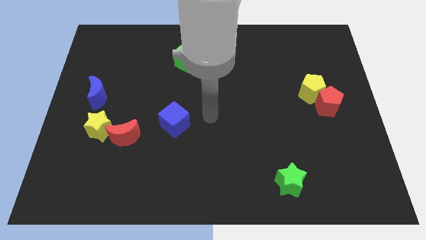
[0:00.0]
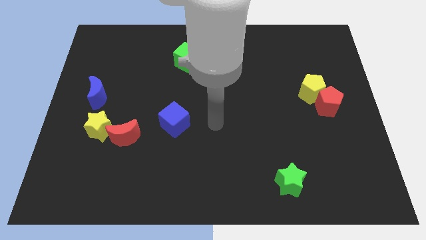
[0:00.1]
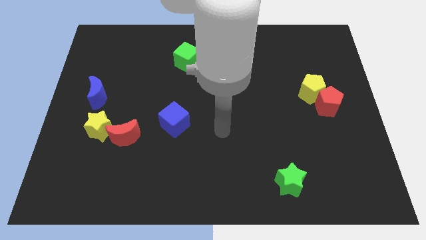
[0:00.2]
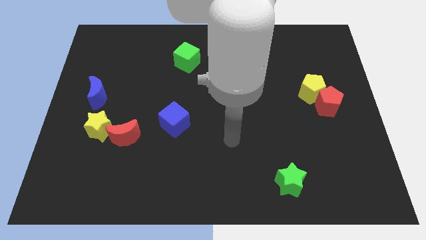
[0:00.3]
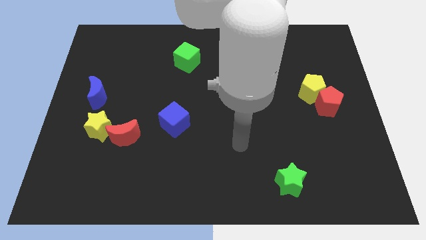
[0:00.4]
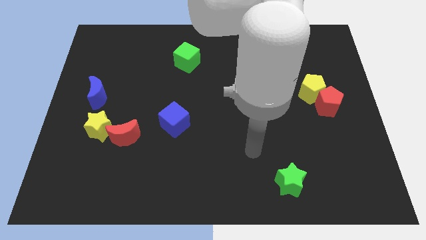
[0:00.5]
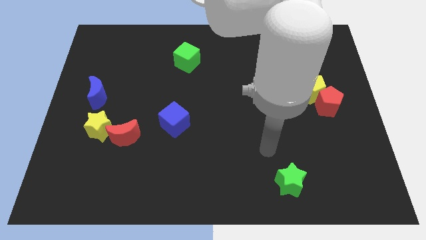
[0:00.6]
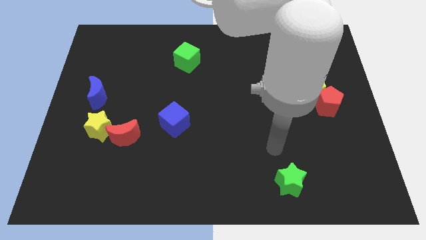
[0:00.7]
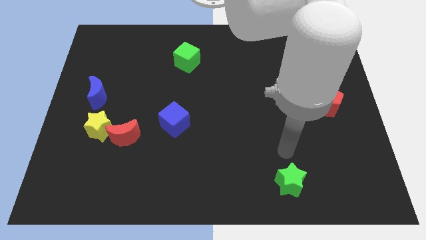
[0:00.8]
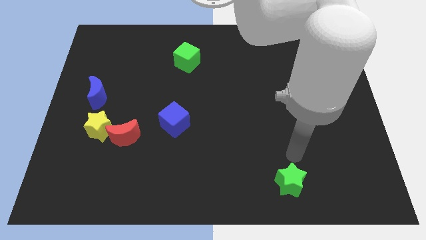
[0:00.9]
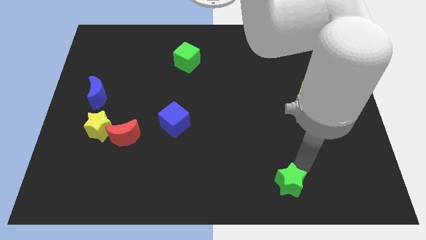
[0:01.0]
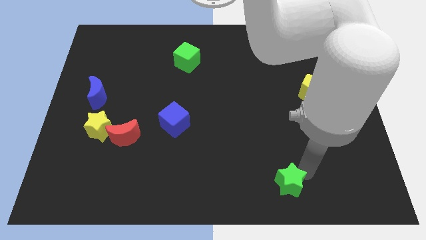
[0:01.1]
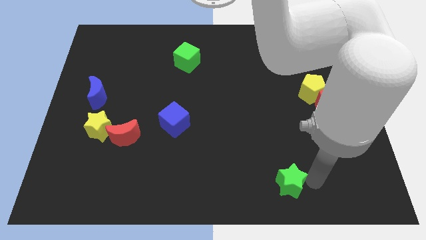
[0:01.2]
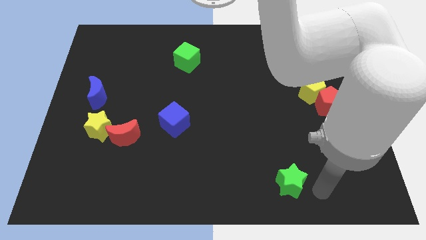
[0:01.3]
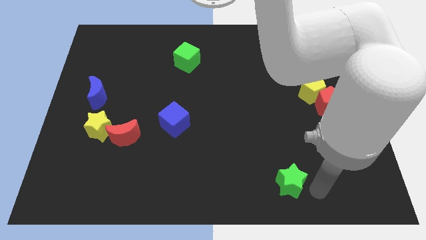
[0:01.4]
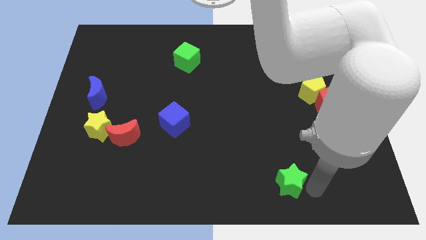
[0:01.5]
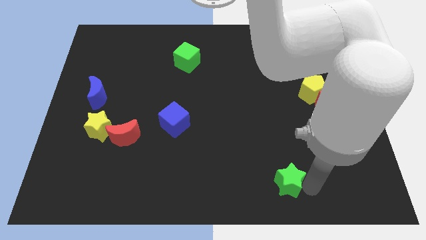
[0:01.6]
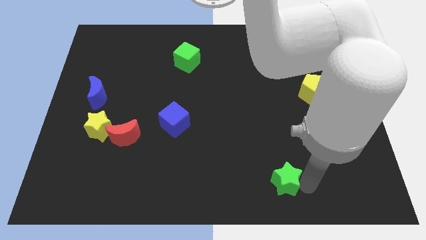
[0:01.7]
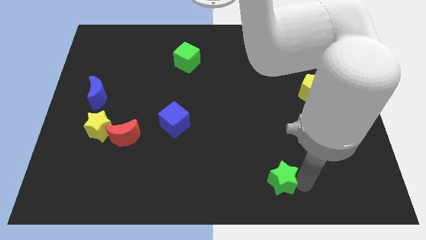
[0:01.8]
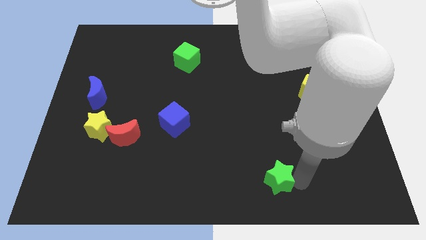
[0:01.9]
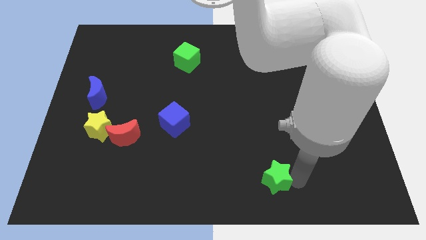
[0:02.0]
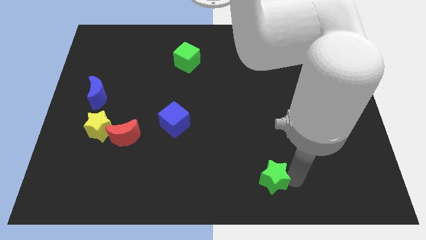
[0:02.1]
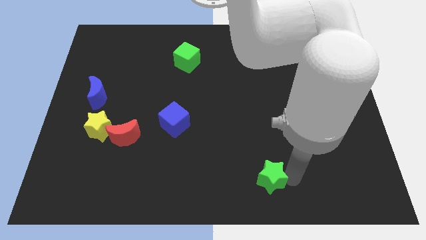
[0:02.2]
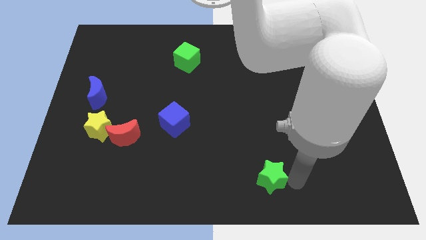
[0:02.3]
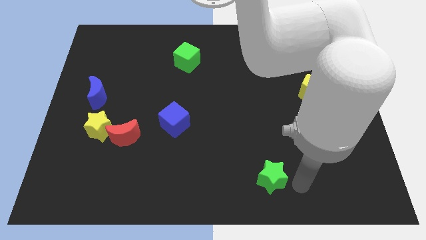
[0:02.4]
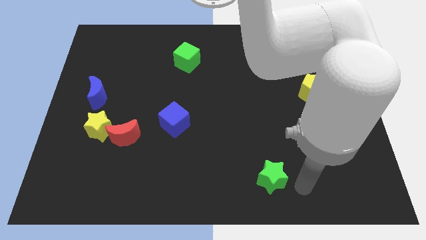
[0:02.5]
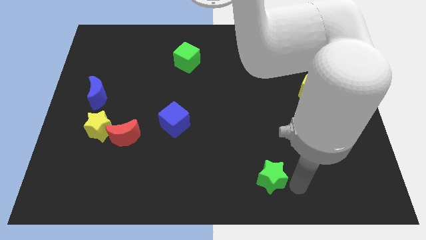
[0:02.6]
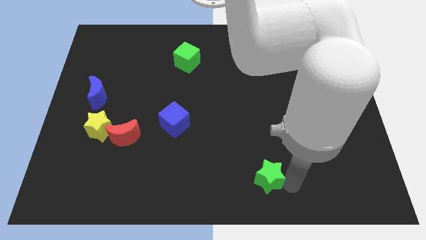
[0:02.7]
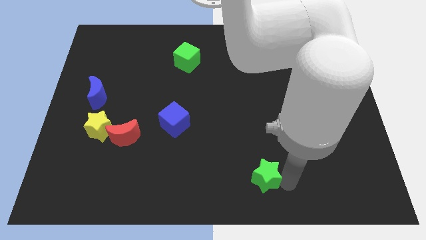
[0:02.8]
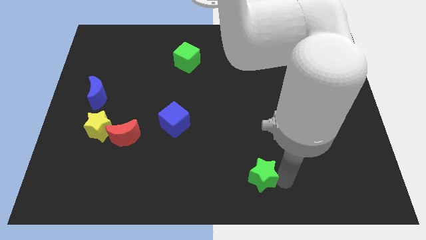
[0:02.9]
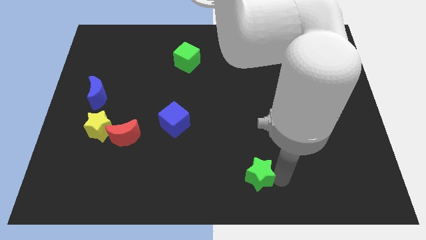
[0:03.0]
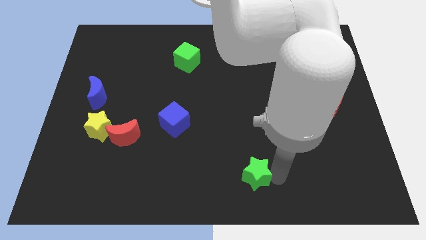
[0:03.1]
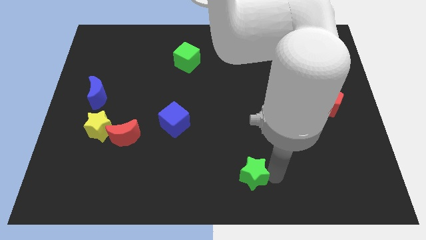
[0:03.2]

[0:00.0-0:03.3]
move the green star a little left

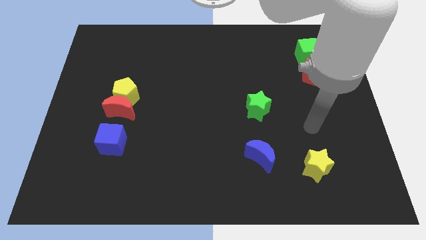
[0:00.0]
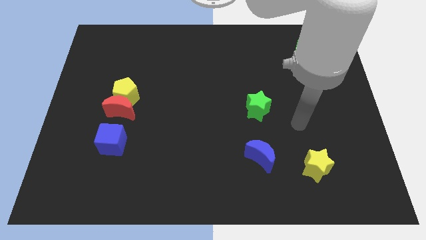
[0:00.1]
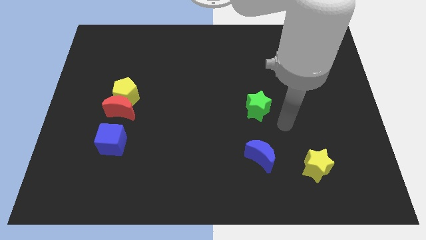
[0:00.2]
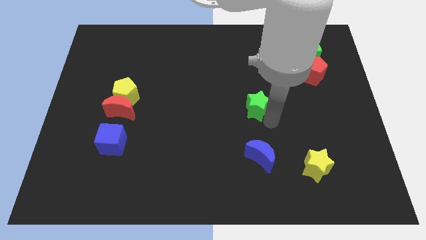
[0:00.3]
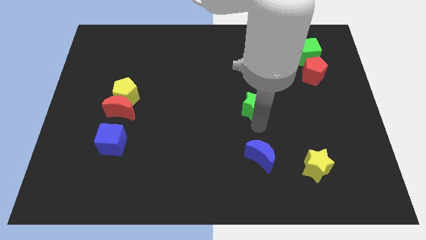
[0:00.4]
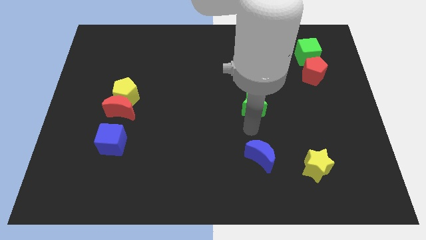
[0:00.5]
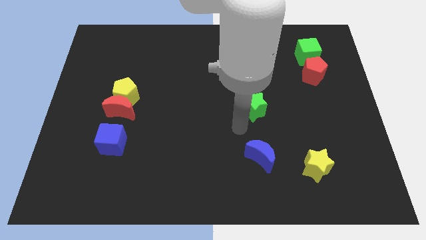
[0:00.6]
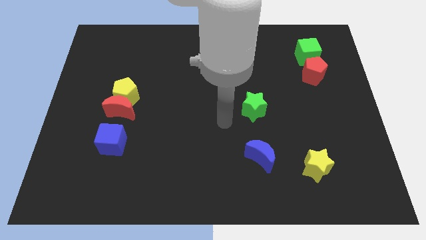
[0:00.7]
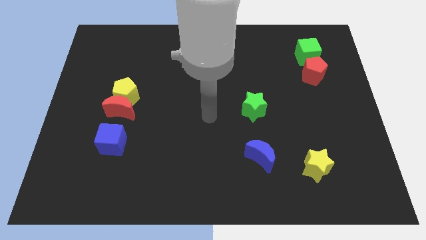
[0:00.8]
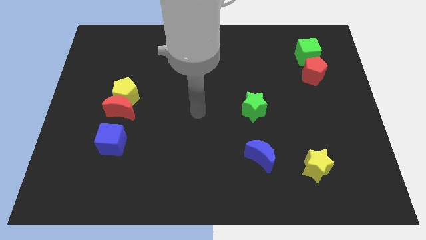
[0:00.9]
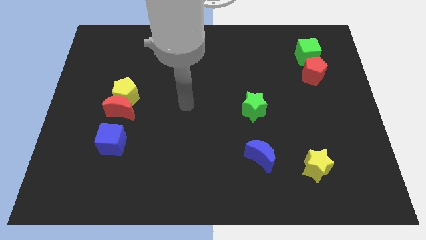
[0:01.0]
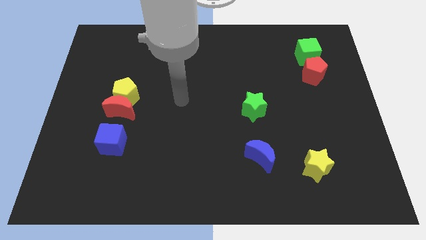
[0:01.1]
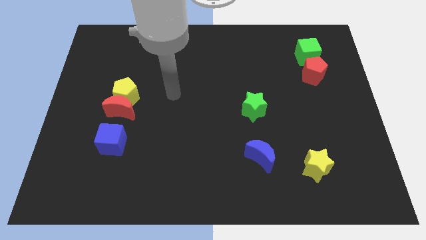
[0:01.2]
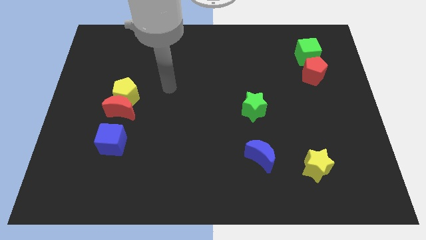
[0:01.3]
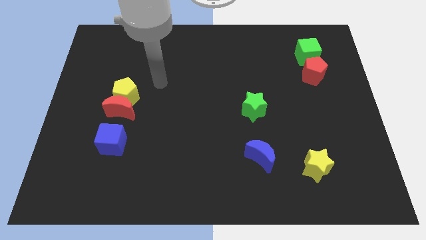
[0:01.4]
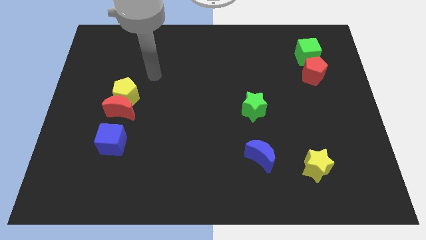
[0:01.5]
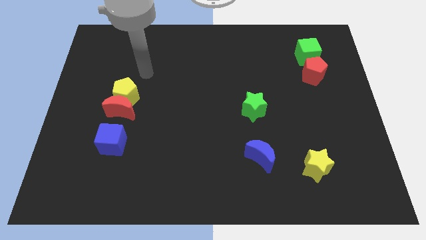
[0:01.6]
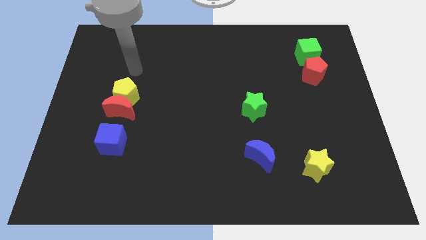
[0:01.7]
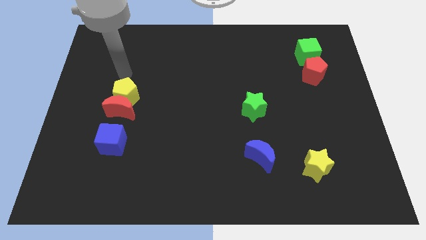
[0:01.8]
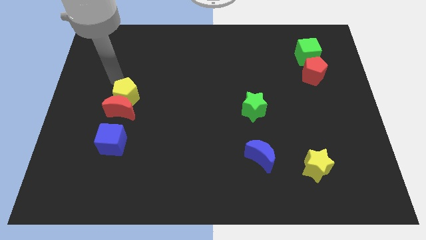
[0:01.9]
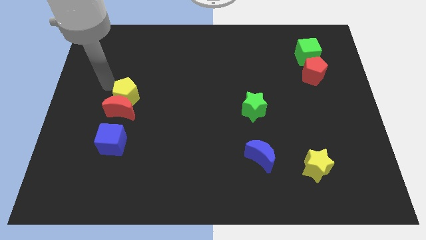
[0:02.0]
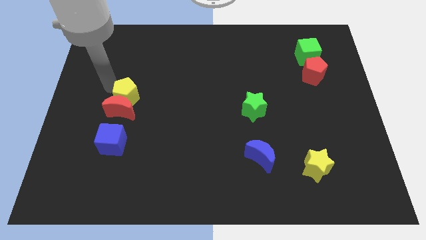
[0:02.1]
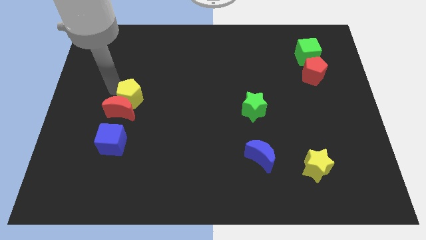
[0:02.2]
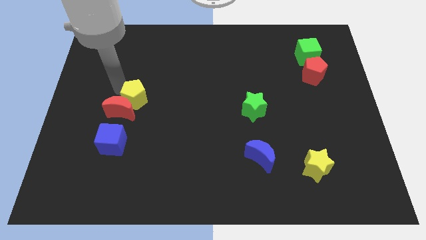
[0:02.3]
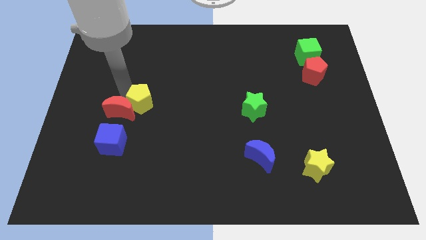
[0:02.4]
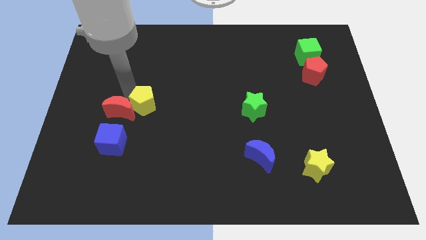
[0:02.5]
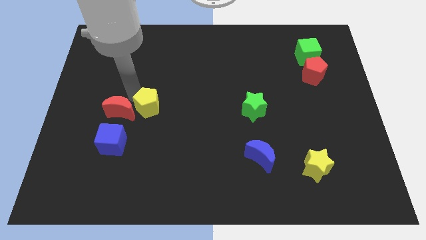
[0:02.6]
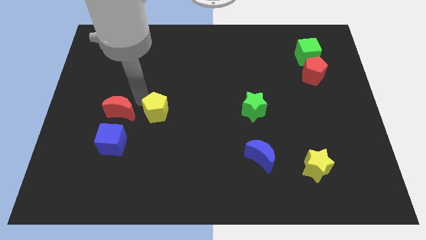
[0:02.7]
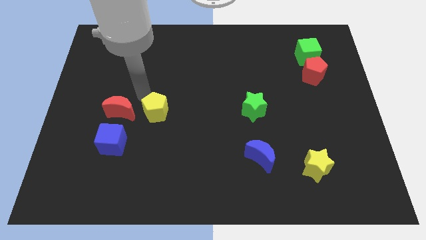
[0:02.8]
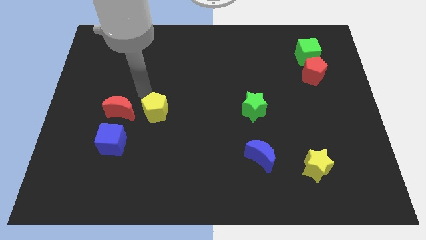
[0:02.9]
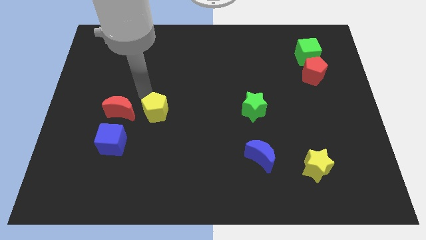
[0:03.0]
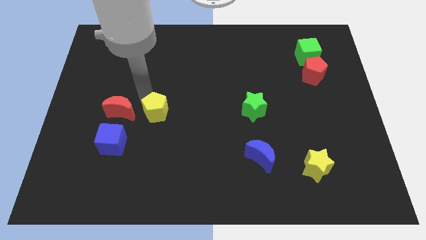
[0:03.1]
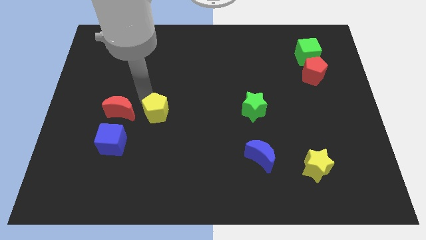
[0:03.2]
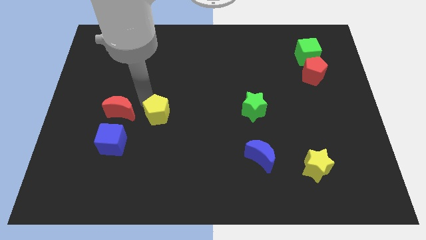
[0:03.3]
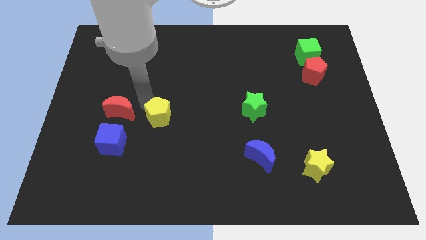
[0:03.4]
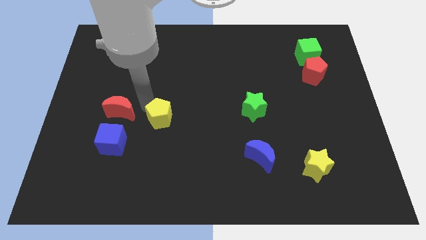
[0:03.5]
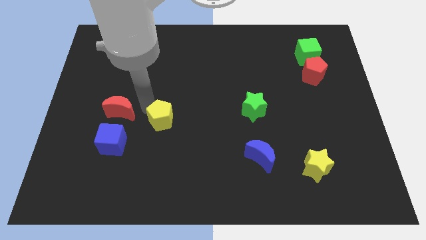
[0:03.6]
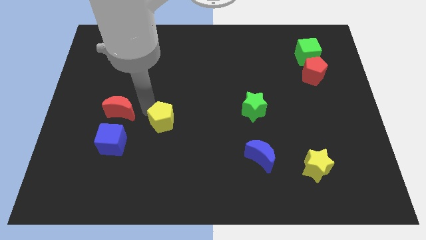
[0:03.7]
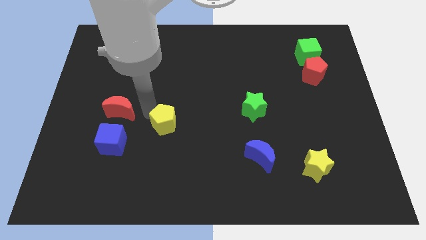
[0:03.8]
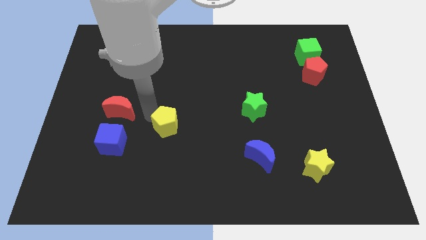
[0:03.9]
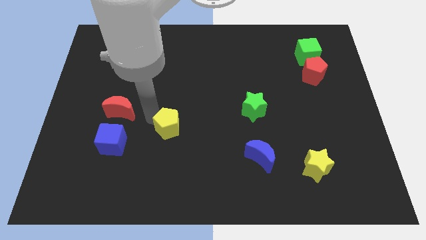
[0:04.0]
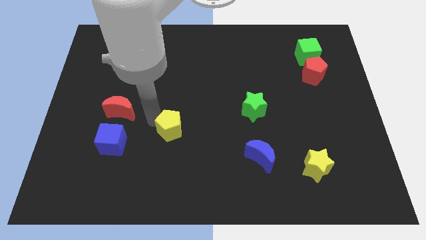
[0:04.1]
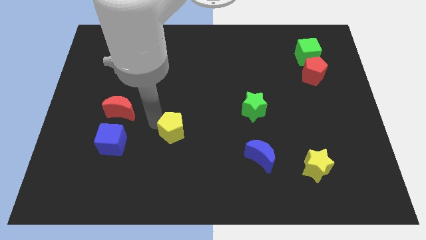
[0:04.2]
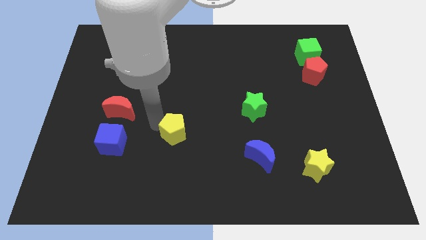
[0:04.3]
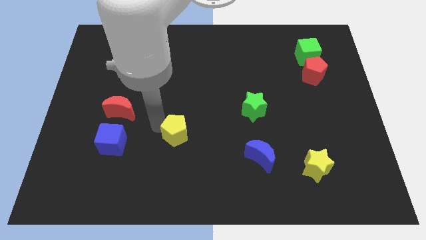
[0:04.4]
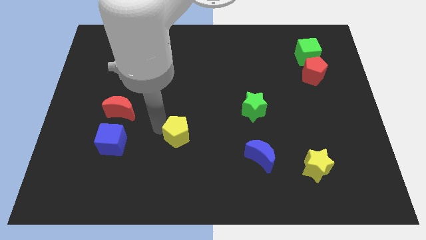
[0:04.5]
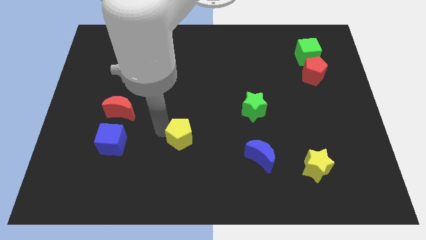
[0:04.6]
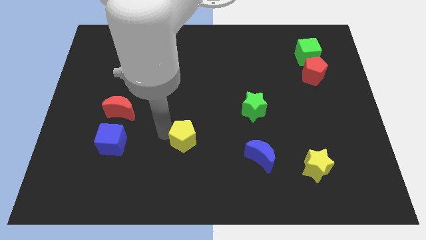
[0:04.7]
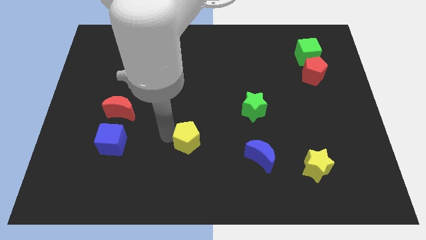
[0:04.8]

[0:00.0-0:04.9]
move the yellow pentagon down and then to the right
